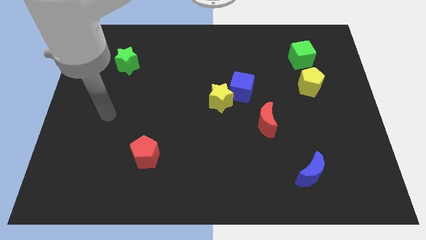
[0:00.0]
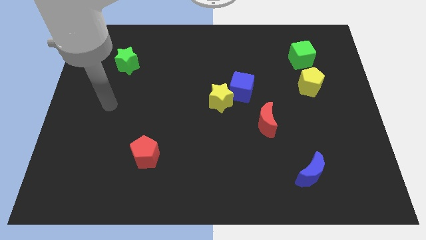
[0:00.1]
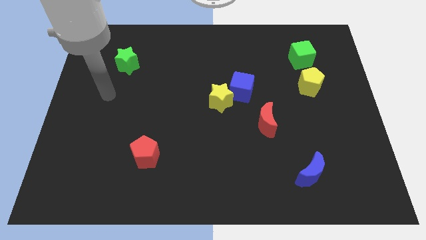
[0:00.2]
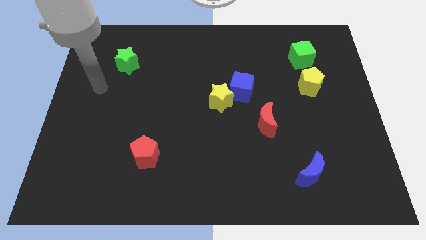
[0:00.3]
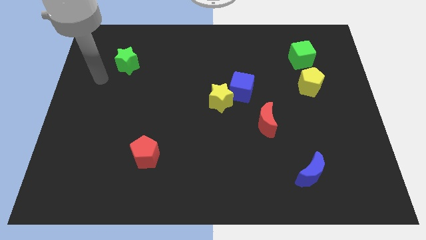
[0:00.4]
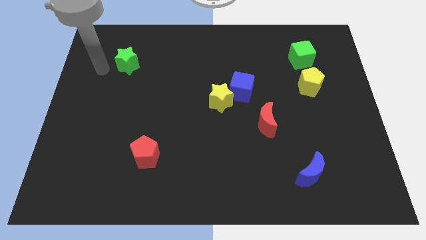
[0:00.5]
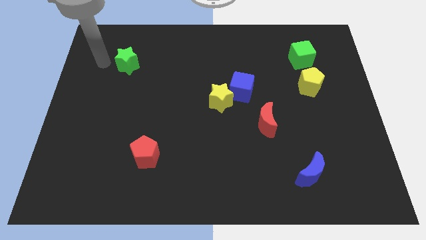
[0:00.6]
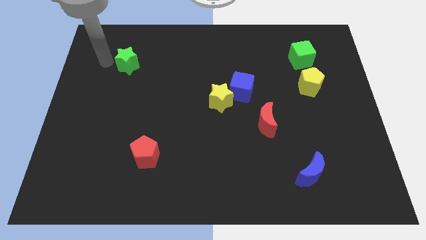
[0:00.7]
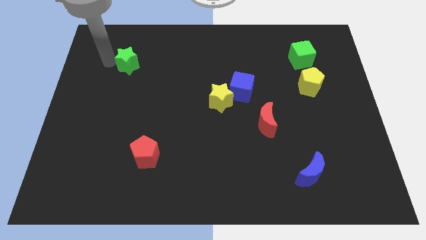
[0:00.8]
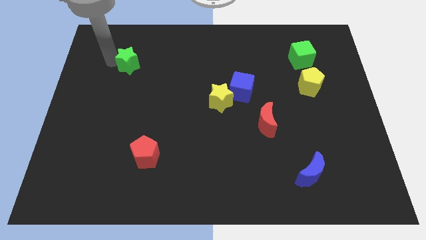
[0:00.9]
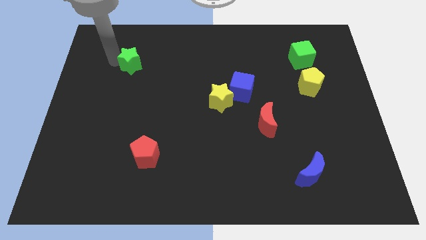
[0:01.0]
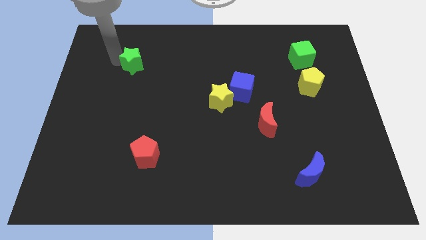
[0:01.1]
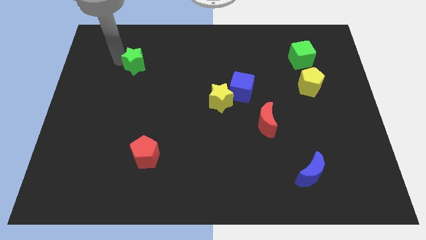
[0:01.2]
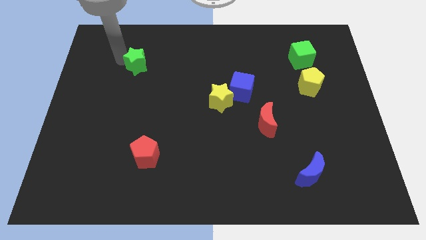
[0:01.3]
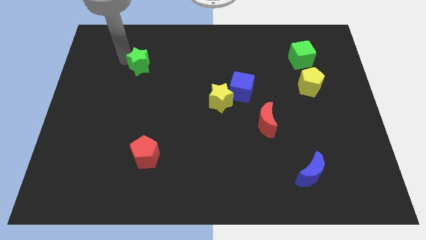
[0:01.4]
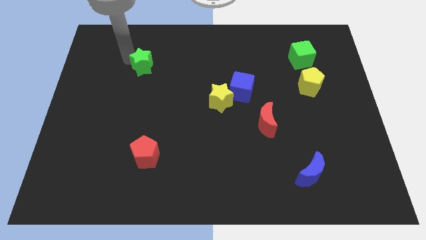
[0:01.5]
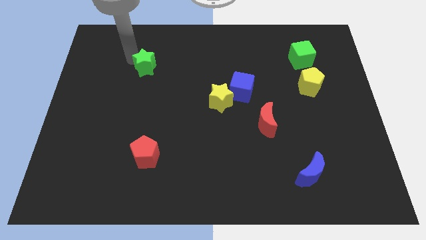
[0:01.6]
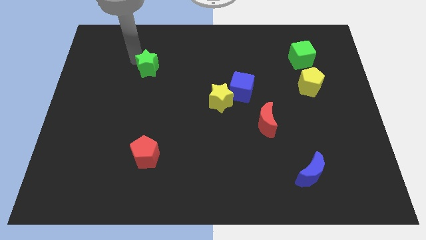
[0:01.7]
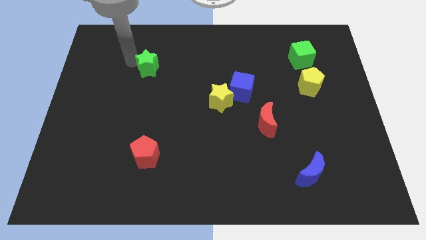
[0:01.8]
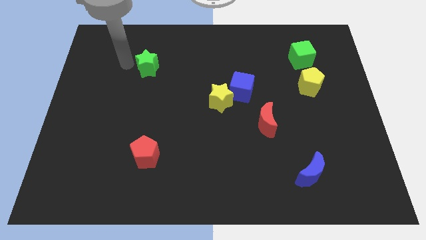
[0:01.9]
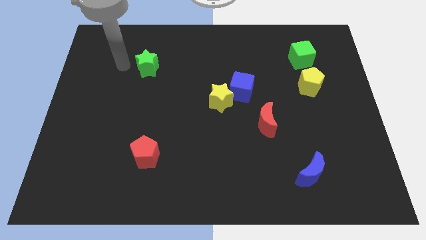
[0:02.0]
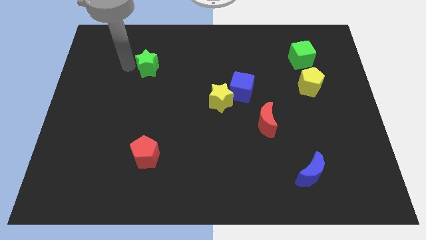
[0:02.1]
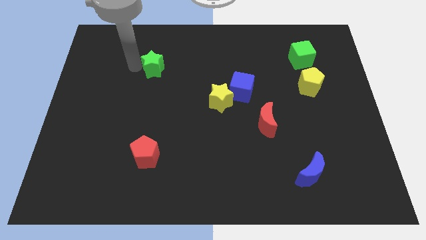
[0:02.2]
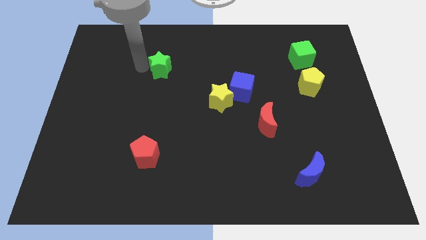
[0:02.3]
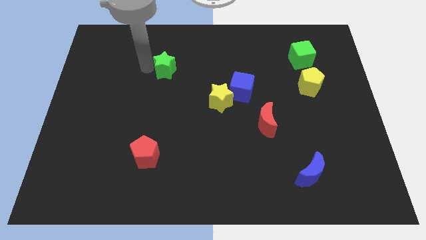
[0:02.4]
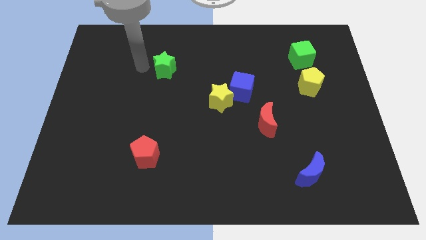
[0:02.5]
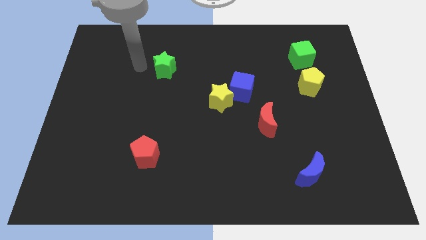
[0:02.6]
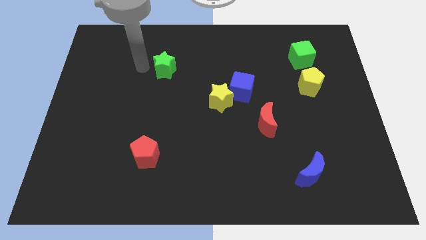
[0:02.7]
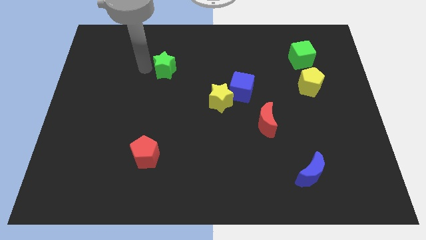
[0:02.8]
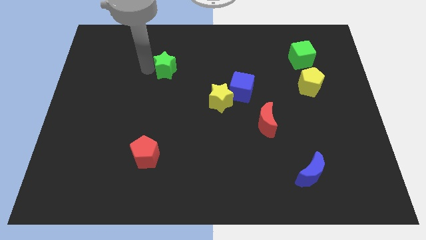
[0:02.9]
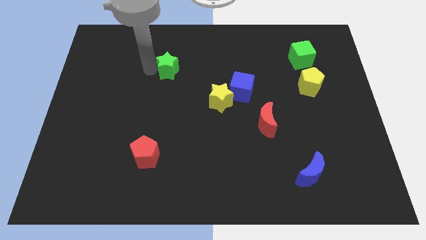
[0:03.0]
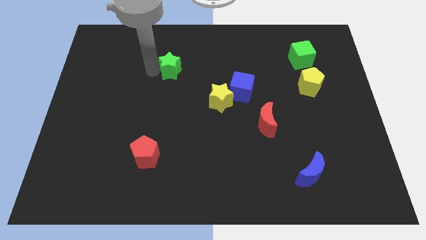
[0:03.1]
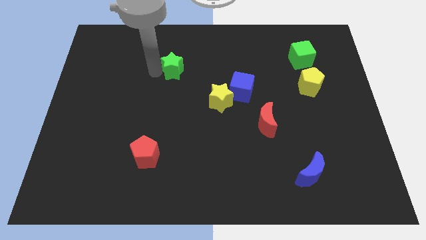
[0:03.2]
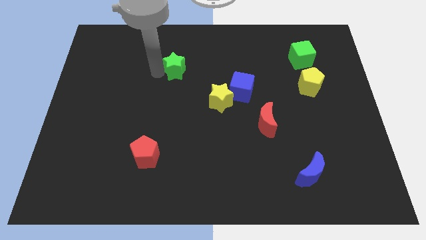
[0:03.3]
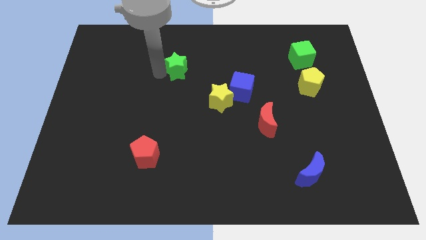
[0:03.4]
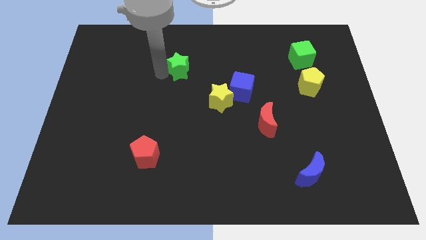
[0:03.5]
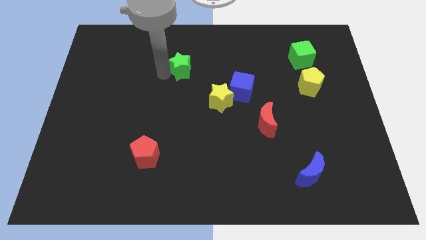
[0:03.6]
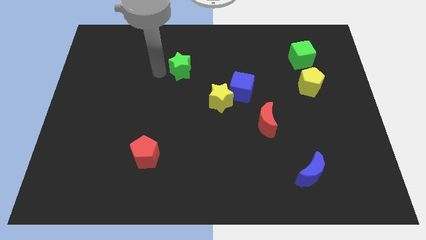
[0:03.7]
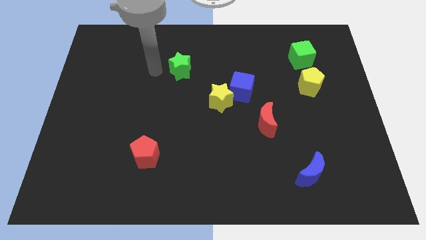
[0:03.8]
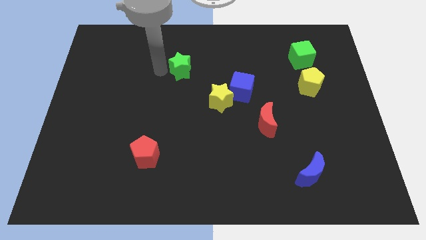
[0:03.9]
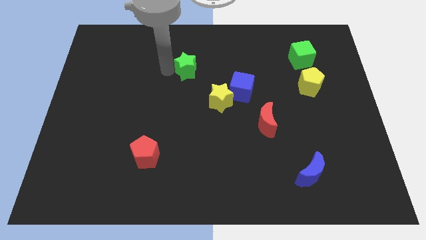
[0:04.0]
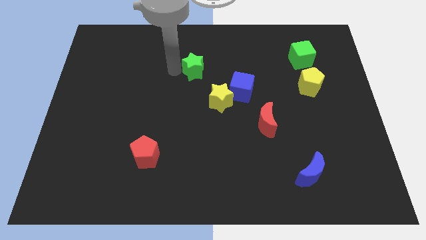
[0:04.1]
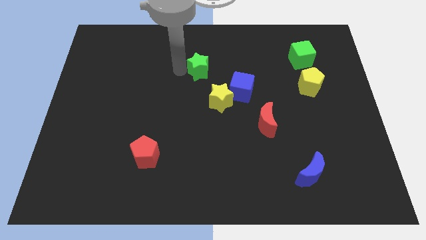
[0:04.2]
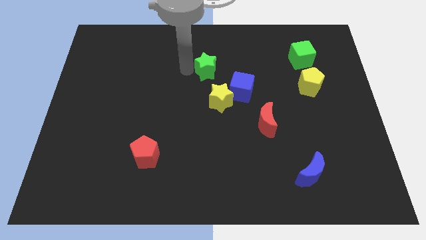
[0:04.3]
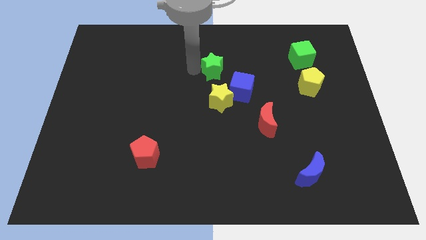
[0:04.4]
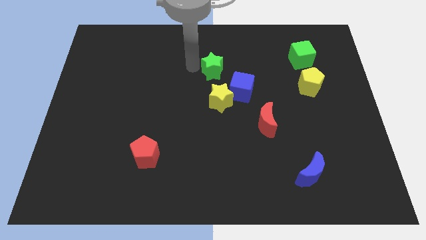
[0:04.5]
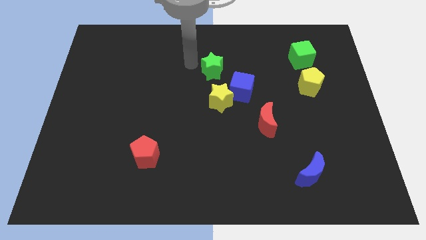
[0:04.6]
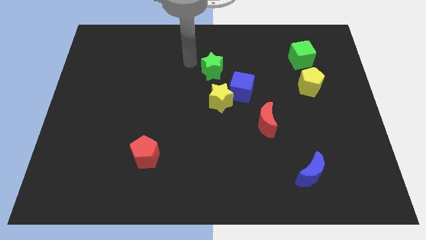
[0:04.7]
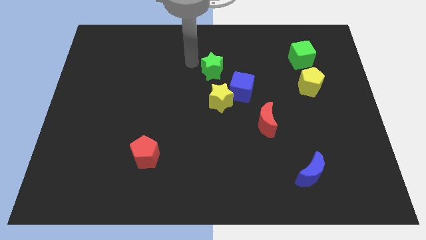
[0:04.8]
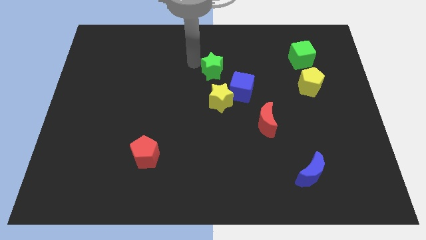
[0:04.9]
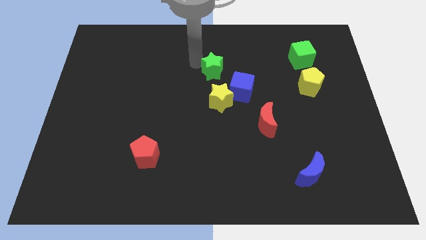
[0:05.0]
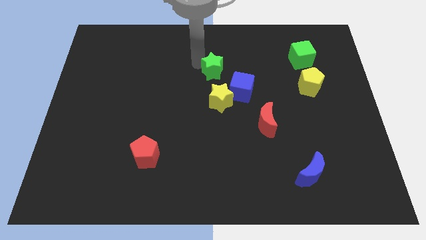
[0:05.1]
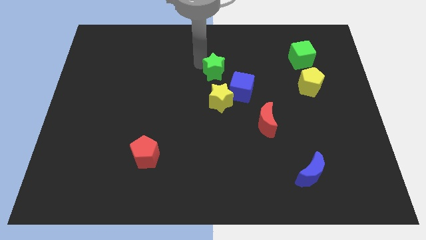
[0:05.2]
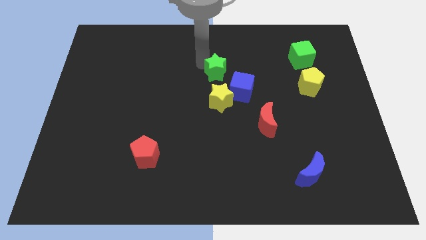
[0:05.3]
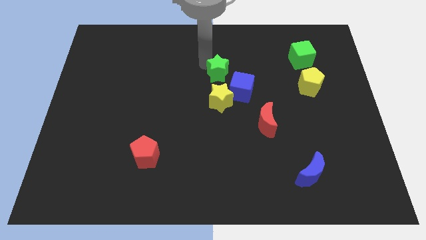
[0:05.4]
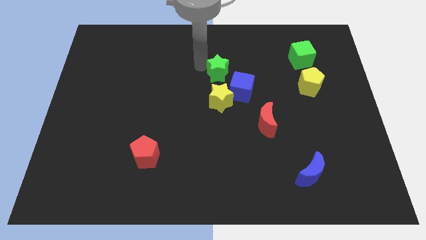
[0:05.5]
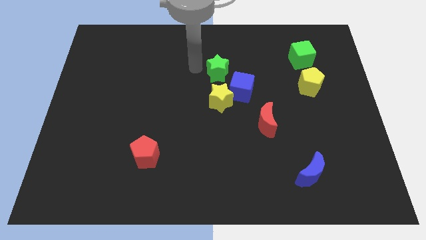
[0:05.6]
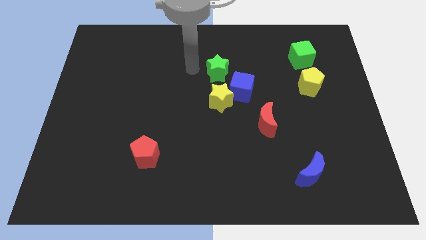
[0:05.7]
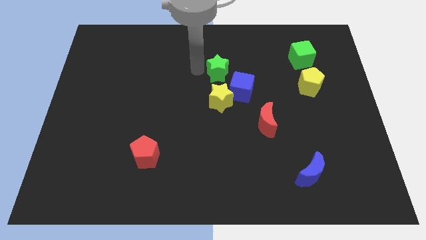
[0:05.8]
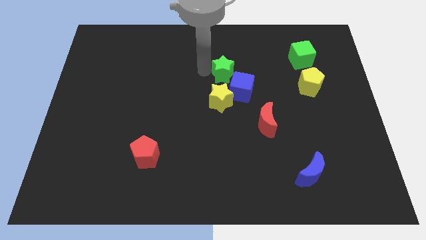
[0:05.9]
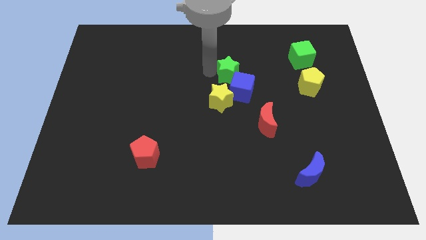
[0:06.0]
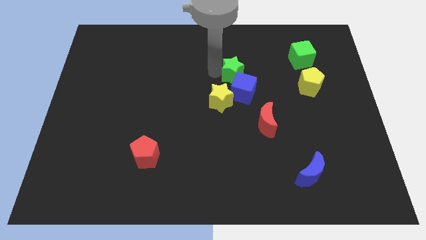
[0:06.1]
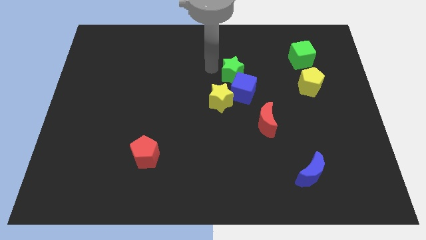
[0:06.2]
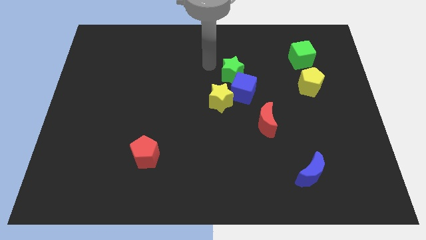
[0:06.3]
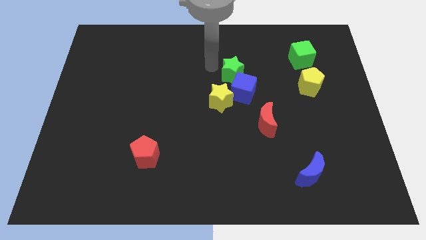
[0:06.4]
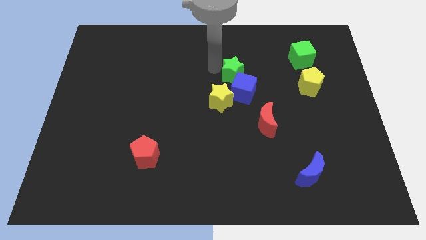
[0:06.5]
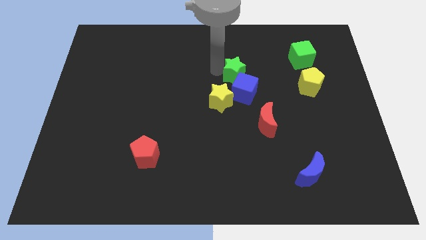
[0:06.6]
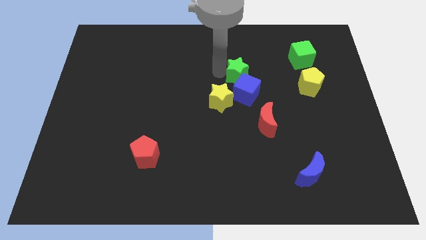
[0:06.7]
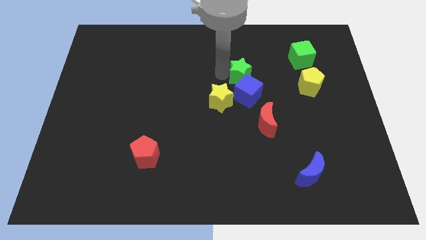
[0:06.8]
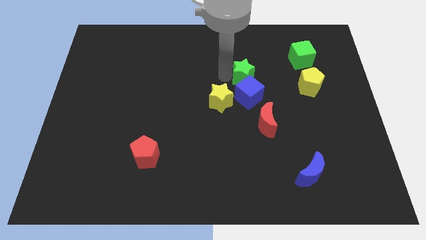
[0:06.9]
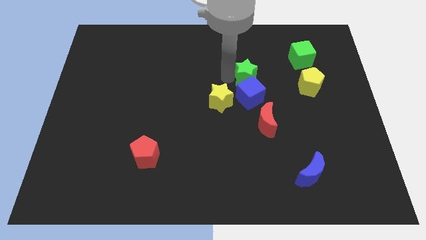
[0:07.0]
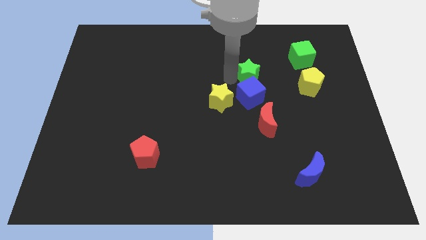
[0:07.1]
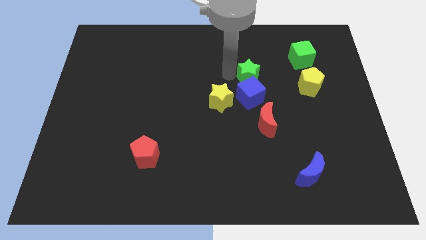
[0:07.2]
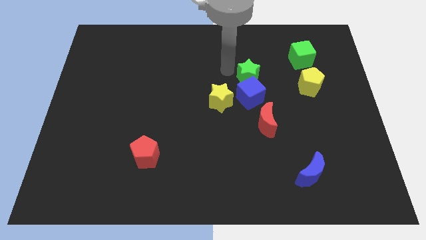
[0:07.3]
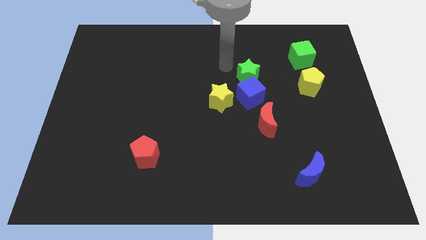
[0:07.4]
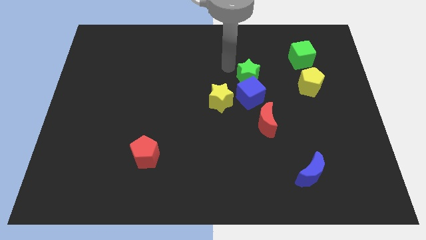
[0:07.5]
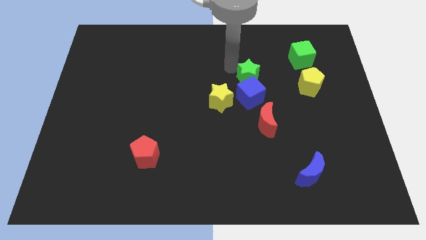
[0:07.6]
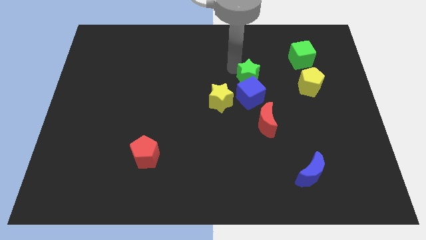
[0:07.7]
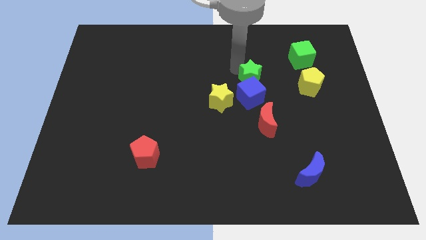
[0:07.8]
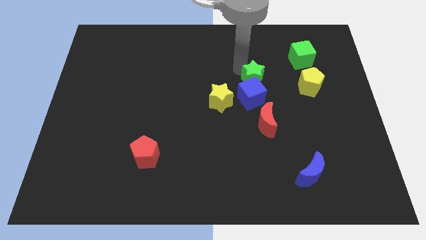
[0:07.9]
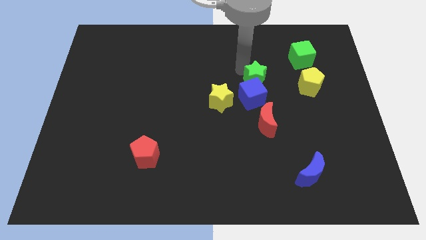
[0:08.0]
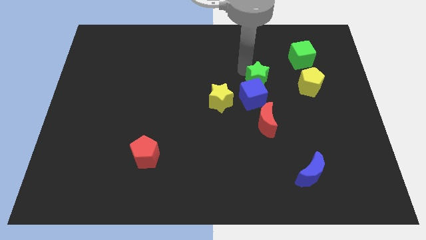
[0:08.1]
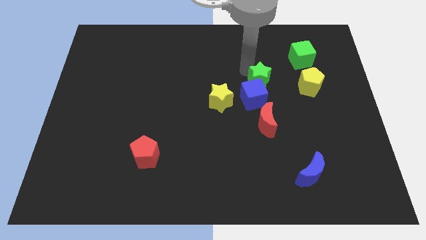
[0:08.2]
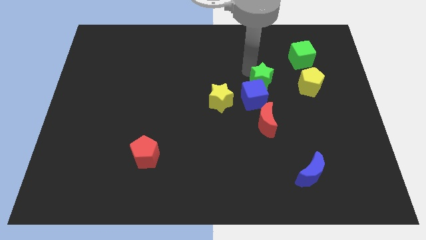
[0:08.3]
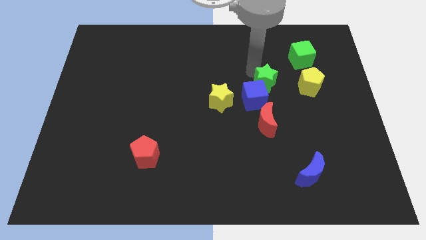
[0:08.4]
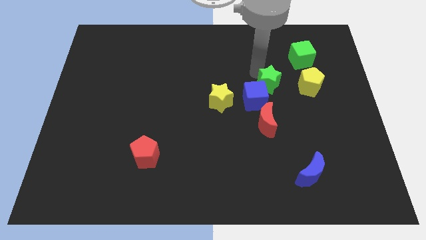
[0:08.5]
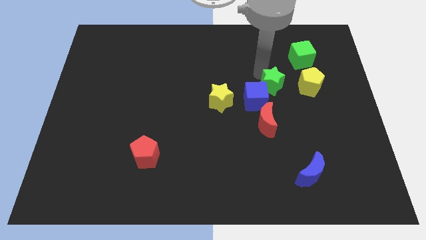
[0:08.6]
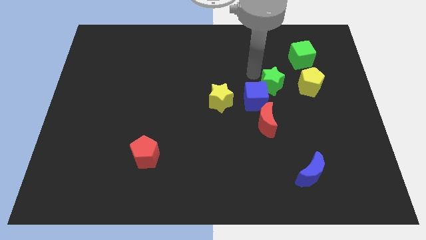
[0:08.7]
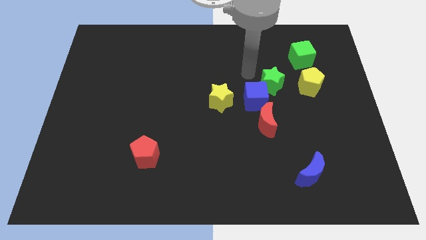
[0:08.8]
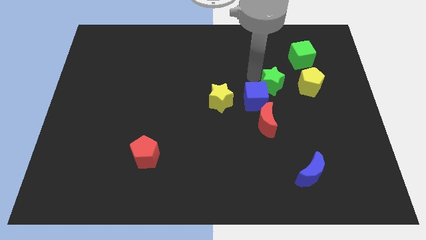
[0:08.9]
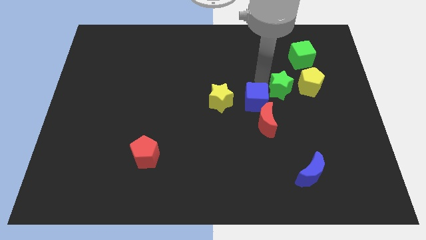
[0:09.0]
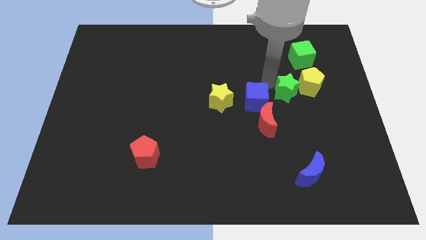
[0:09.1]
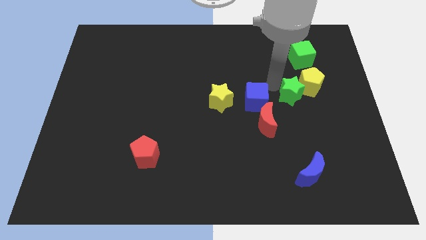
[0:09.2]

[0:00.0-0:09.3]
move the green star to the bottom of the green cube
